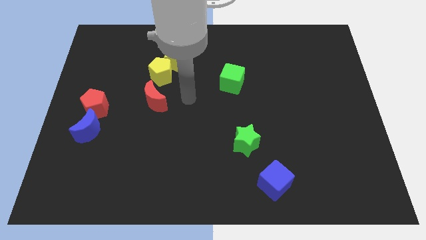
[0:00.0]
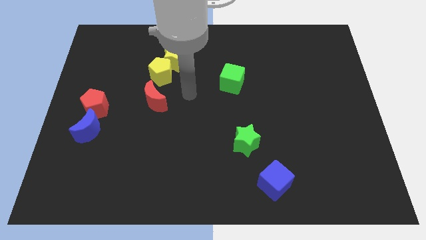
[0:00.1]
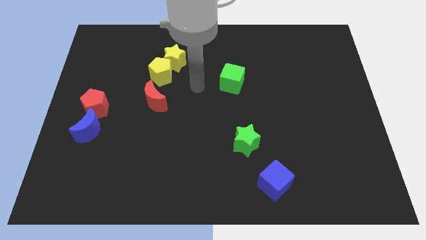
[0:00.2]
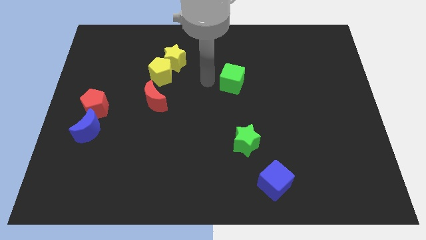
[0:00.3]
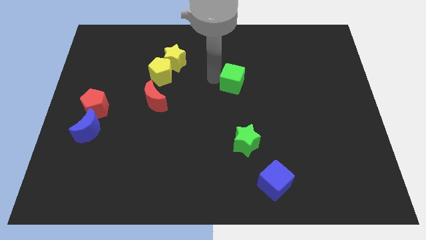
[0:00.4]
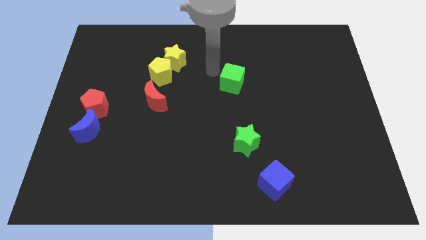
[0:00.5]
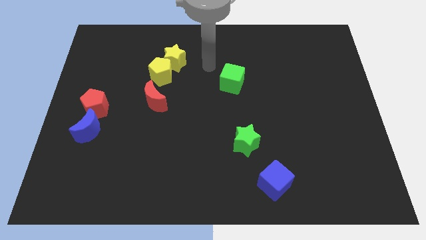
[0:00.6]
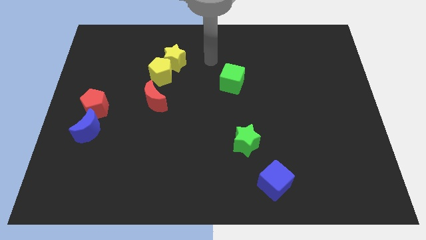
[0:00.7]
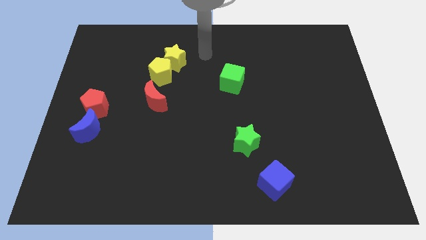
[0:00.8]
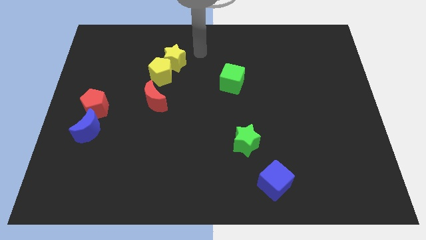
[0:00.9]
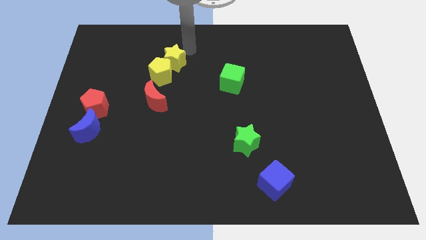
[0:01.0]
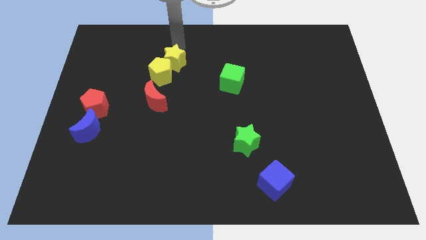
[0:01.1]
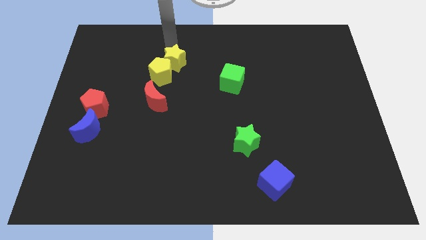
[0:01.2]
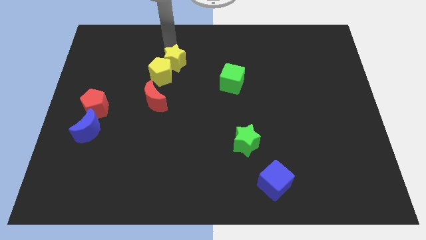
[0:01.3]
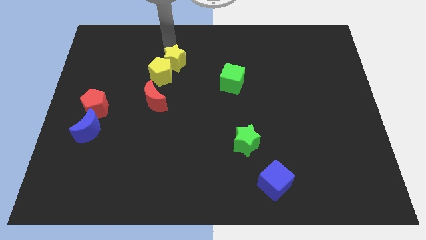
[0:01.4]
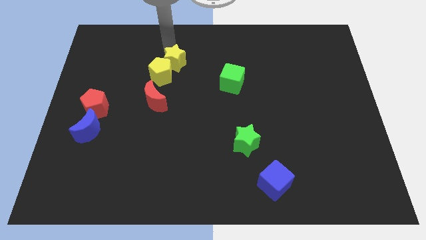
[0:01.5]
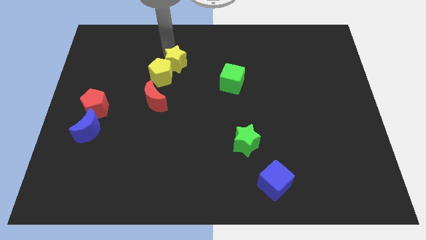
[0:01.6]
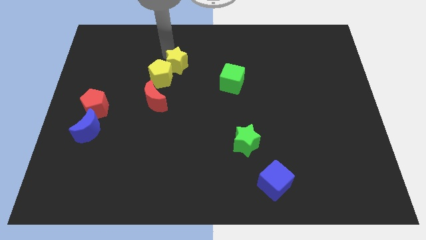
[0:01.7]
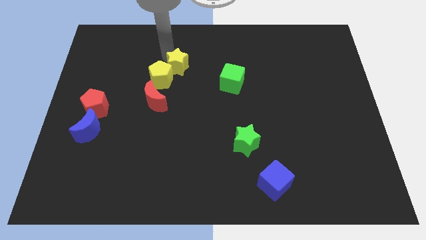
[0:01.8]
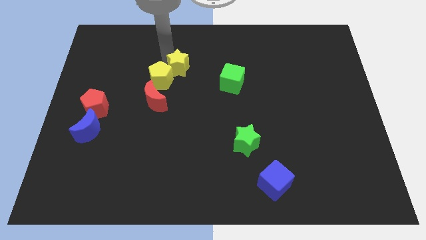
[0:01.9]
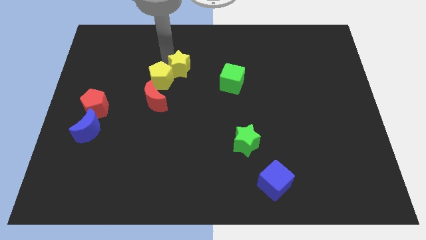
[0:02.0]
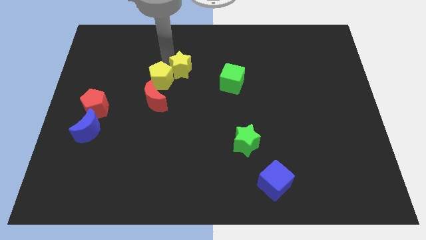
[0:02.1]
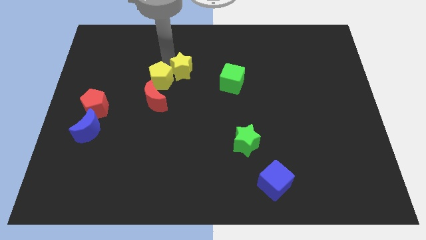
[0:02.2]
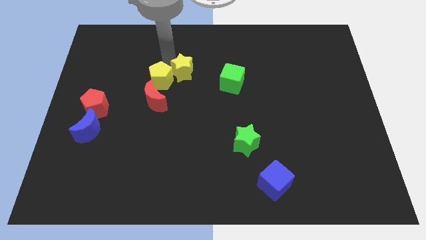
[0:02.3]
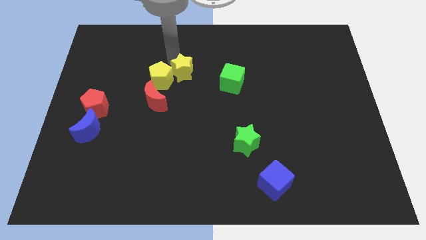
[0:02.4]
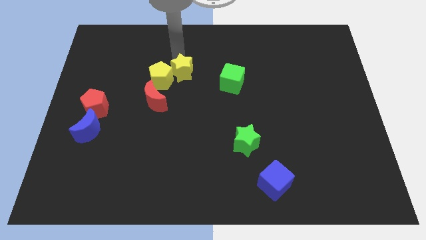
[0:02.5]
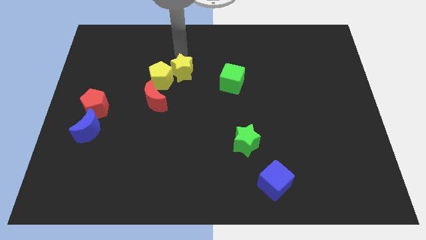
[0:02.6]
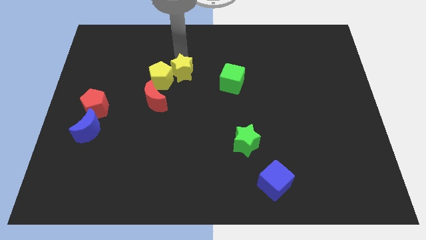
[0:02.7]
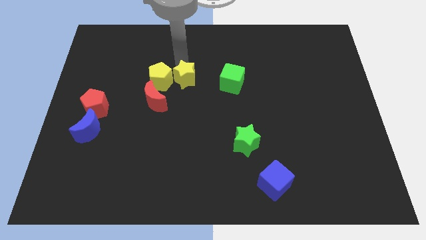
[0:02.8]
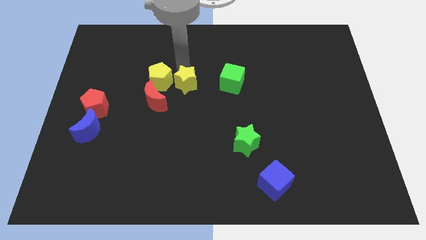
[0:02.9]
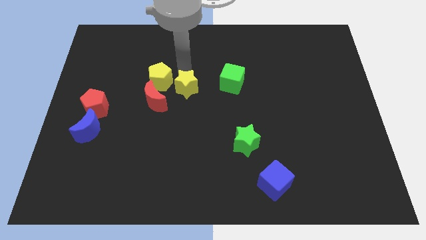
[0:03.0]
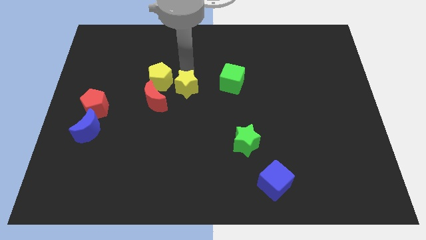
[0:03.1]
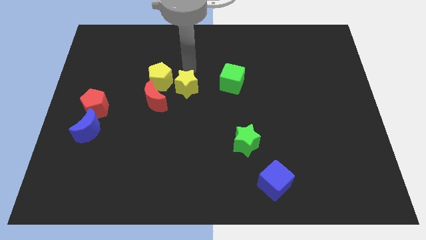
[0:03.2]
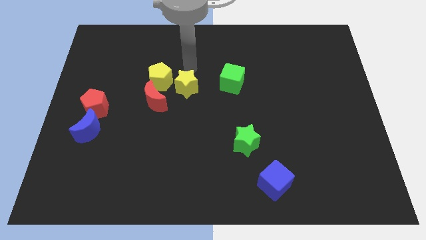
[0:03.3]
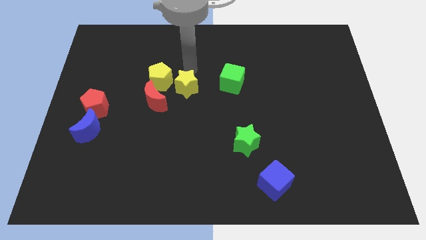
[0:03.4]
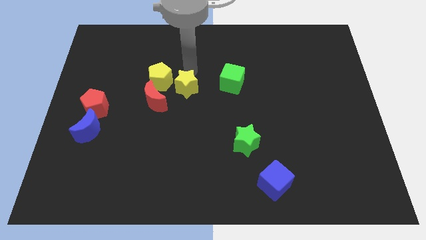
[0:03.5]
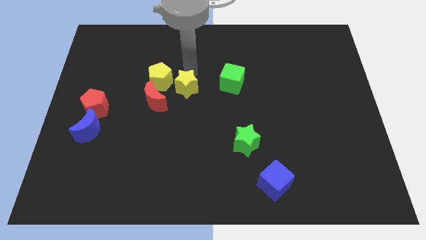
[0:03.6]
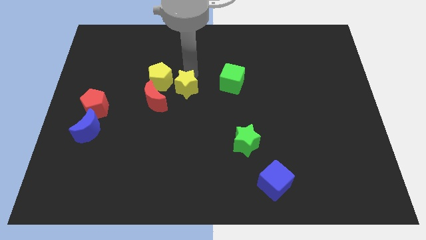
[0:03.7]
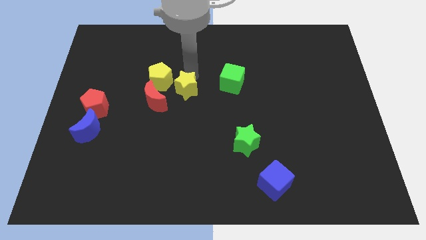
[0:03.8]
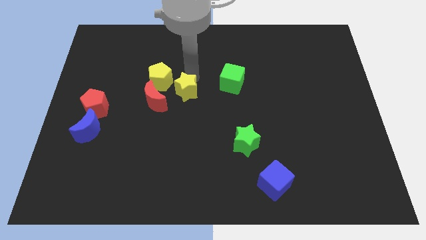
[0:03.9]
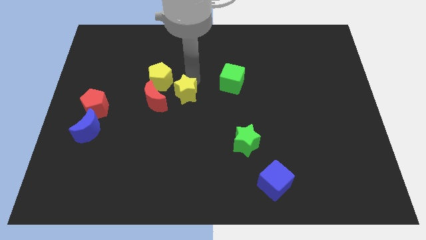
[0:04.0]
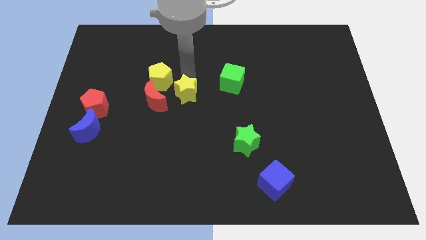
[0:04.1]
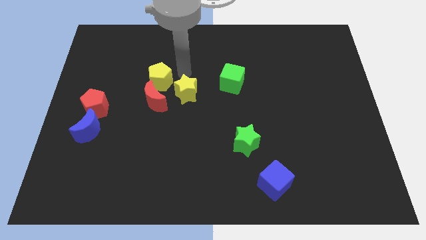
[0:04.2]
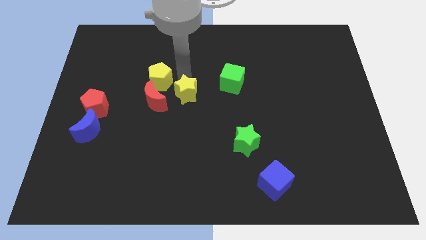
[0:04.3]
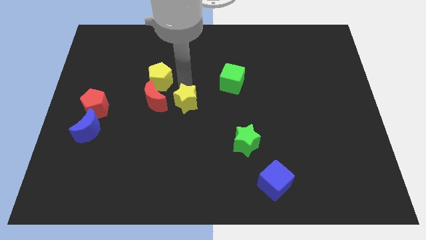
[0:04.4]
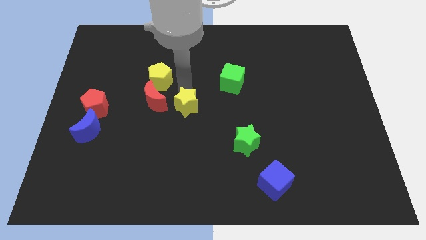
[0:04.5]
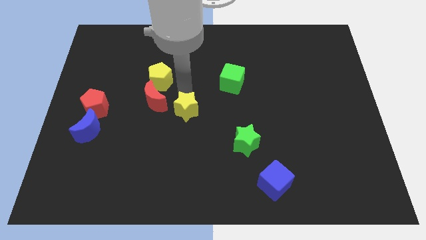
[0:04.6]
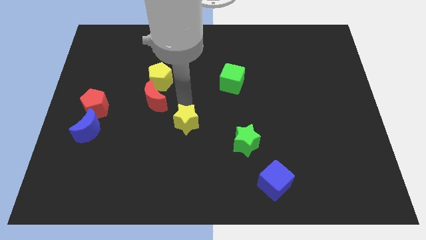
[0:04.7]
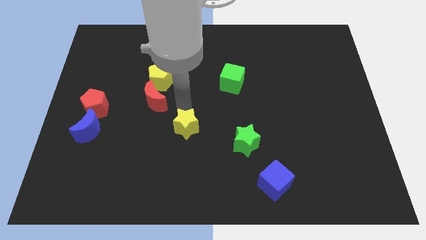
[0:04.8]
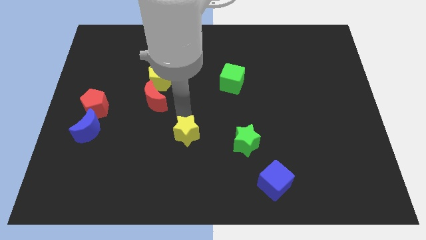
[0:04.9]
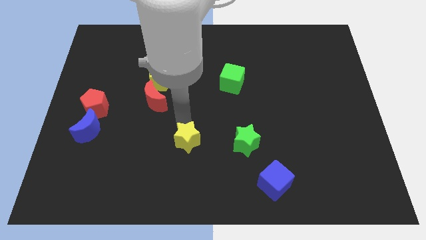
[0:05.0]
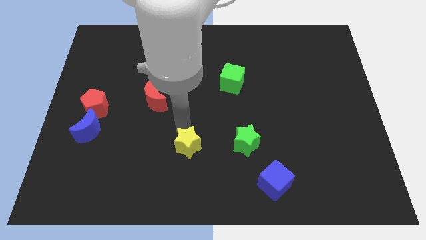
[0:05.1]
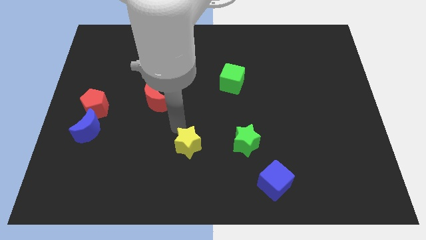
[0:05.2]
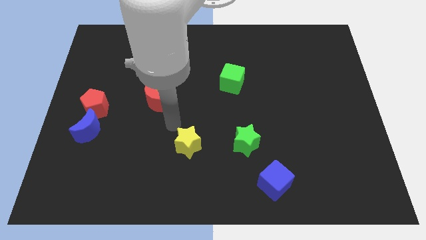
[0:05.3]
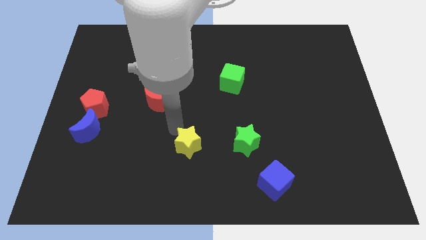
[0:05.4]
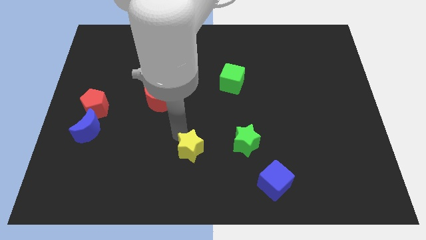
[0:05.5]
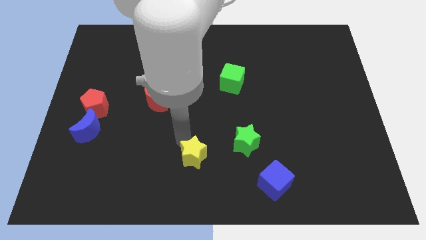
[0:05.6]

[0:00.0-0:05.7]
slide the yellow star to the bottom side

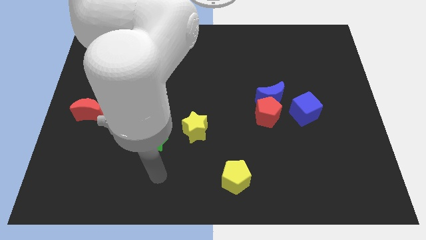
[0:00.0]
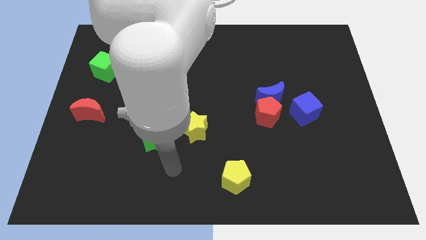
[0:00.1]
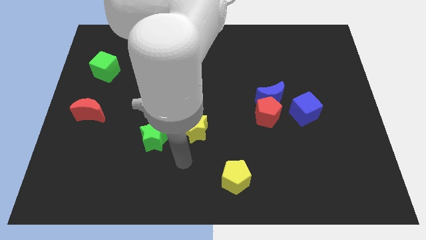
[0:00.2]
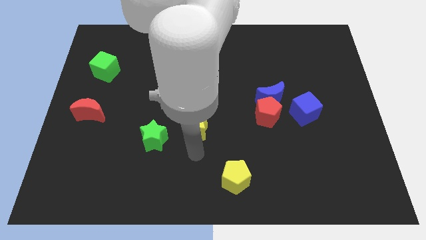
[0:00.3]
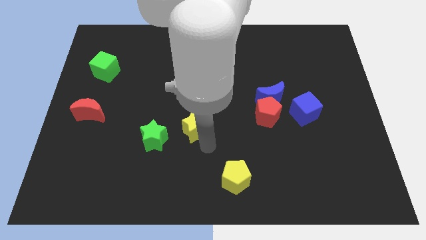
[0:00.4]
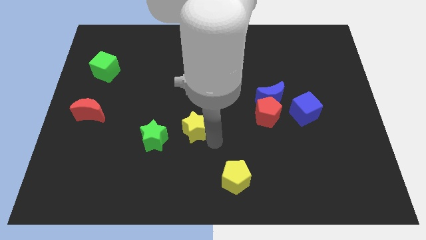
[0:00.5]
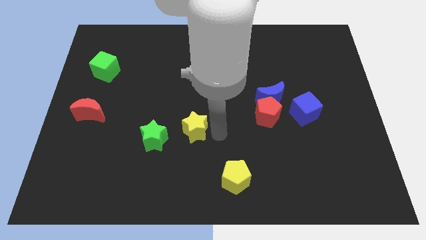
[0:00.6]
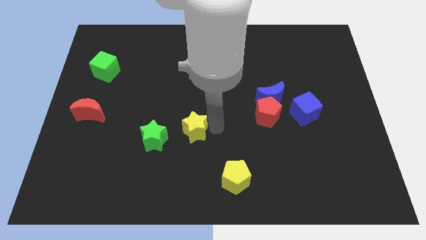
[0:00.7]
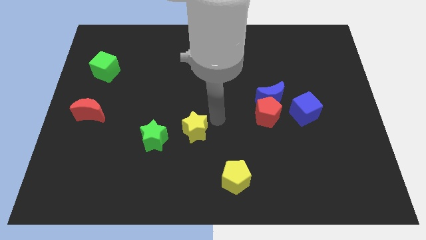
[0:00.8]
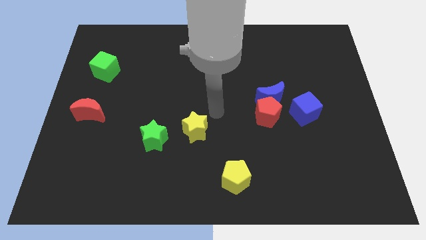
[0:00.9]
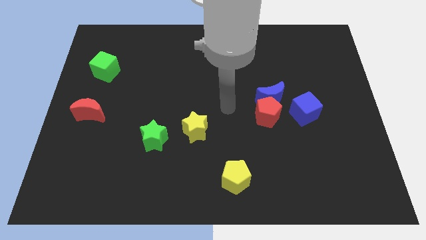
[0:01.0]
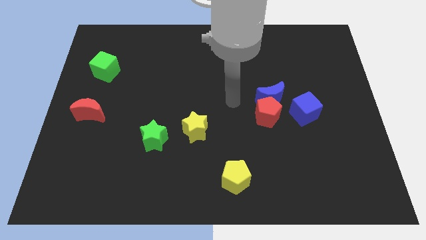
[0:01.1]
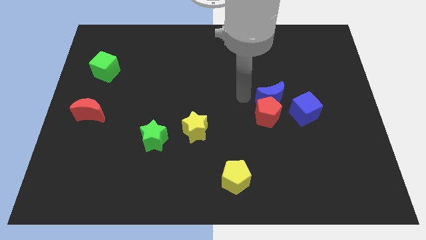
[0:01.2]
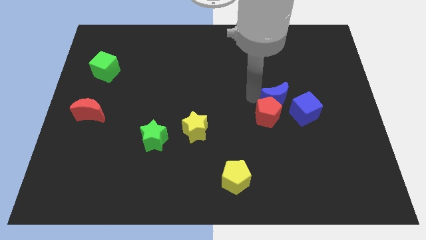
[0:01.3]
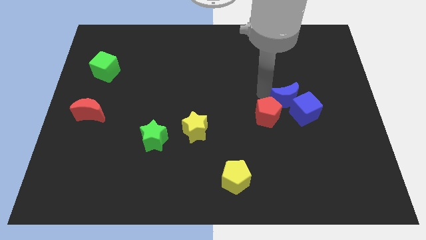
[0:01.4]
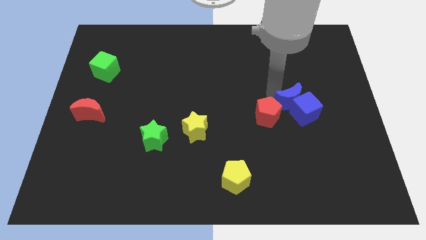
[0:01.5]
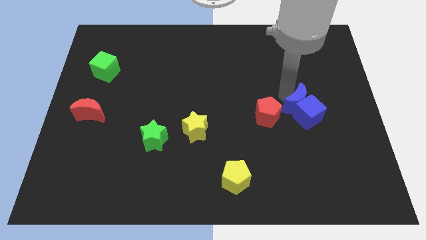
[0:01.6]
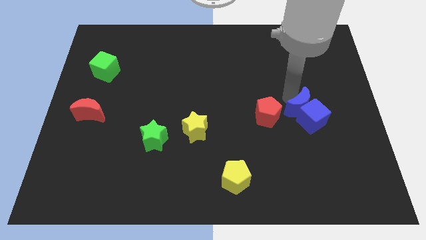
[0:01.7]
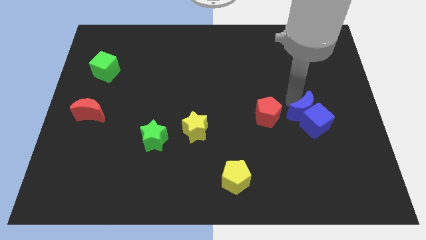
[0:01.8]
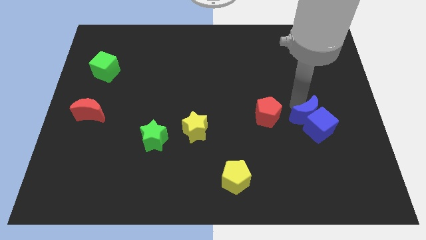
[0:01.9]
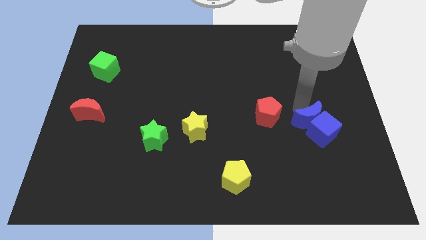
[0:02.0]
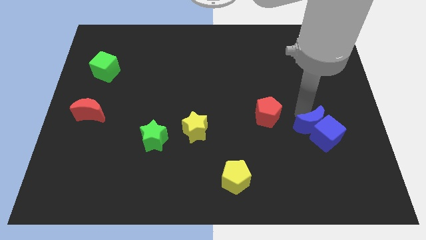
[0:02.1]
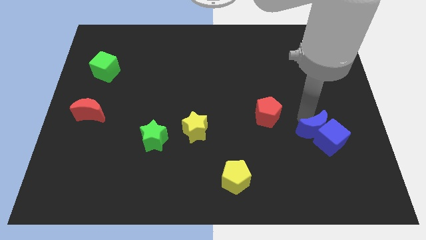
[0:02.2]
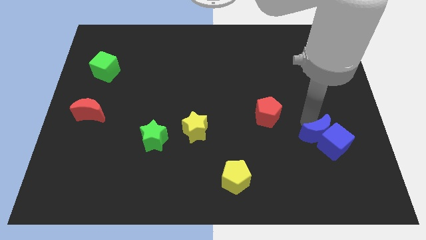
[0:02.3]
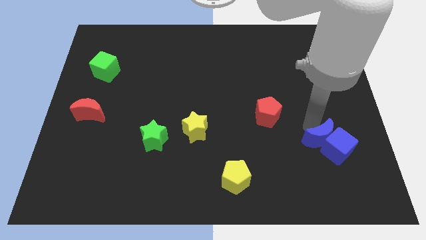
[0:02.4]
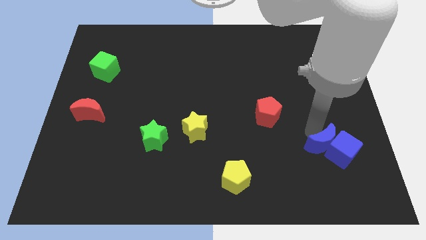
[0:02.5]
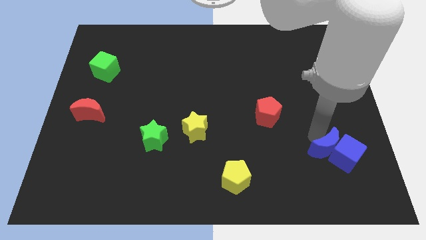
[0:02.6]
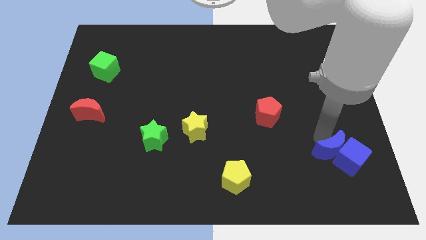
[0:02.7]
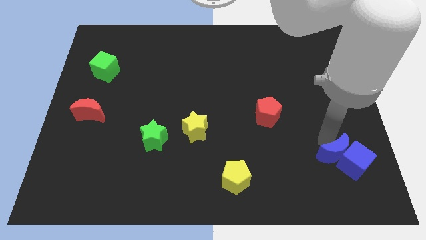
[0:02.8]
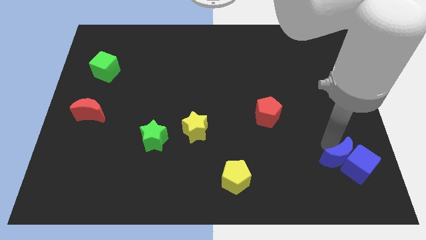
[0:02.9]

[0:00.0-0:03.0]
push the blue cube to the bottom right of the board
